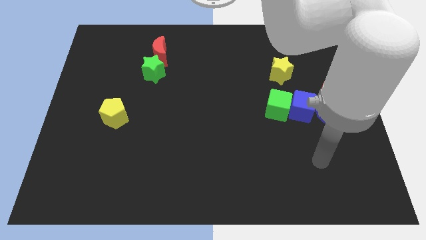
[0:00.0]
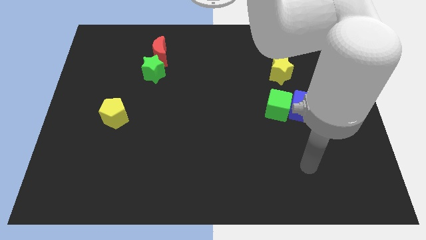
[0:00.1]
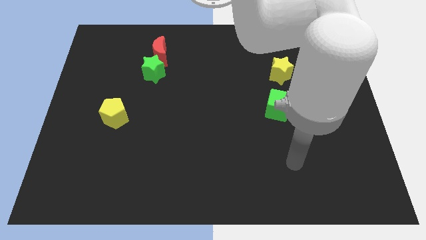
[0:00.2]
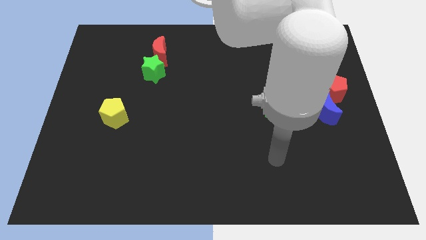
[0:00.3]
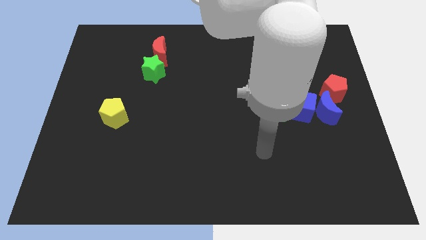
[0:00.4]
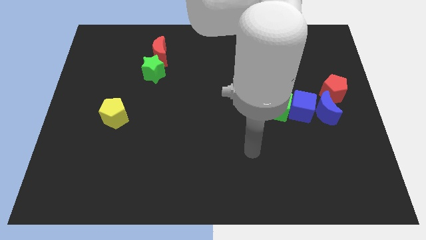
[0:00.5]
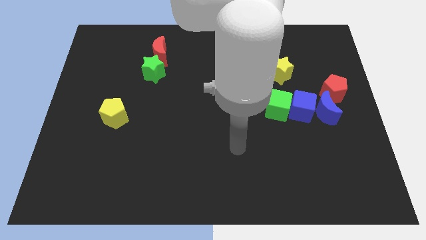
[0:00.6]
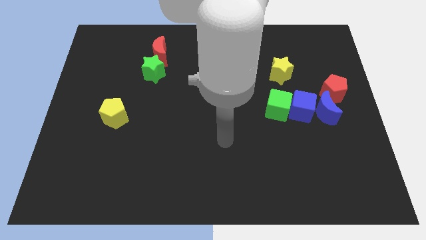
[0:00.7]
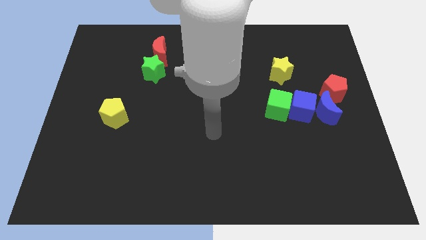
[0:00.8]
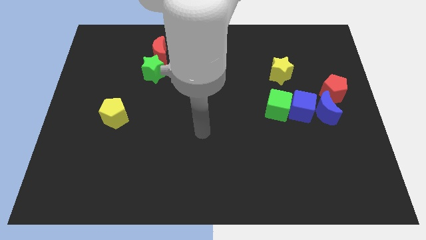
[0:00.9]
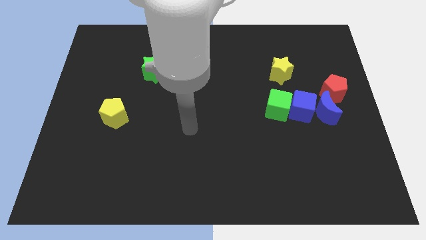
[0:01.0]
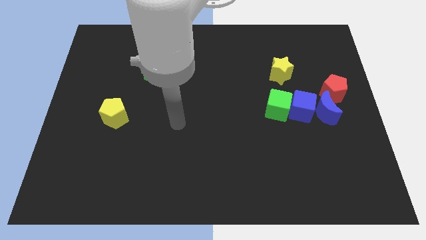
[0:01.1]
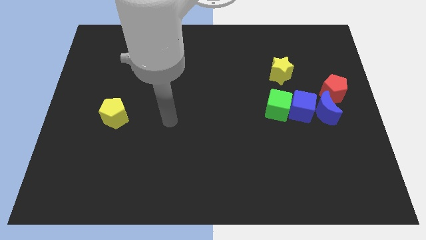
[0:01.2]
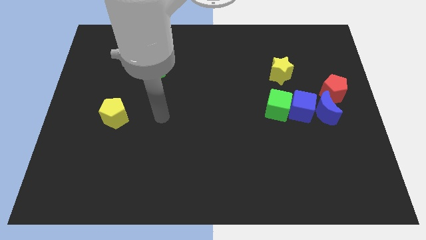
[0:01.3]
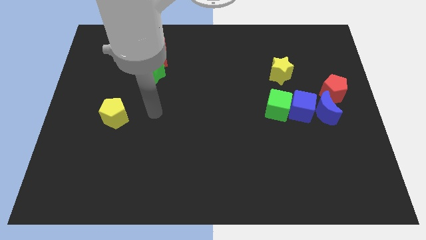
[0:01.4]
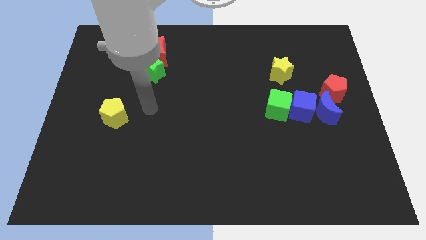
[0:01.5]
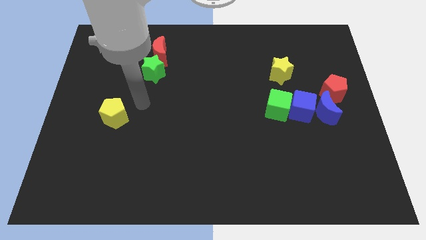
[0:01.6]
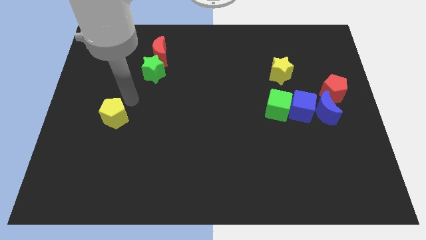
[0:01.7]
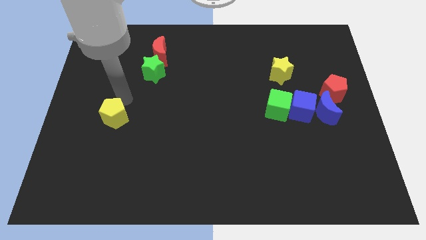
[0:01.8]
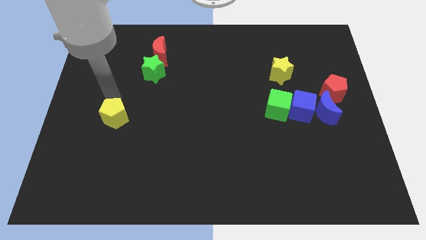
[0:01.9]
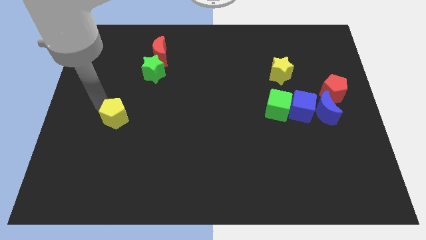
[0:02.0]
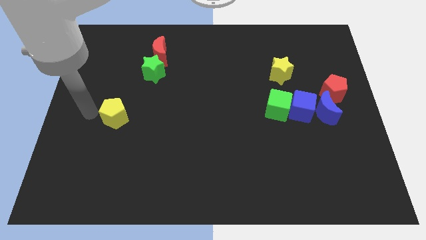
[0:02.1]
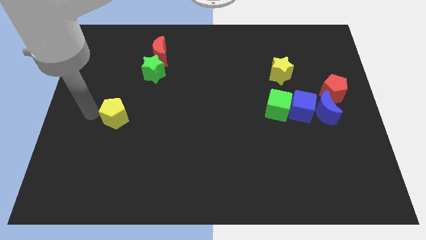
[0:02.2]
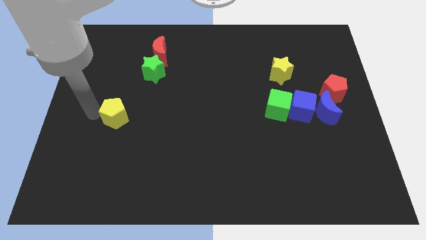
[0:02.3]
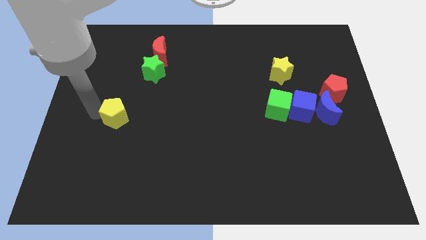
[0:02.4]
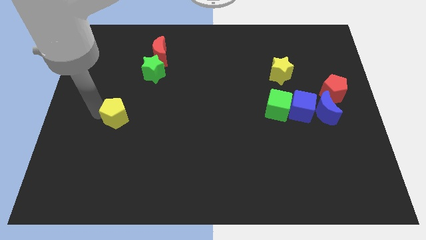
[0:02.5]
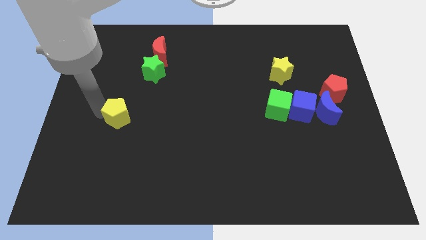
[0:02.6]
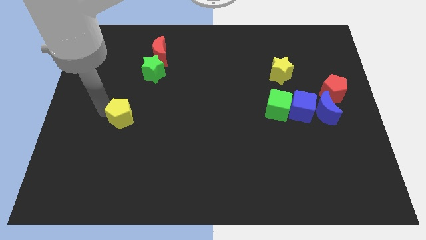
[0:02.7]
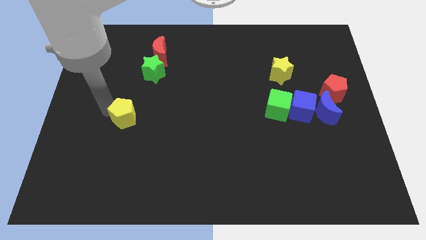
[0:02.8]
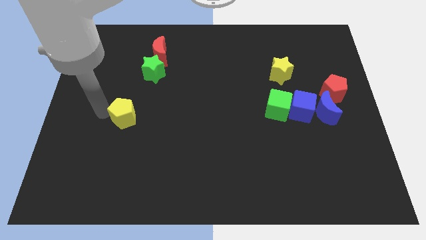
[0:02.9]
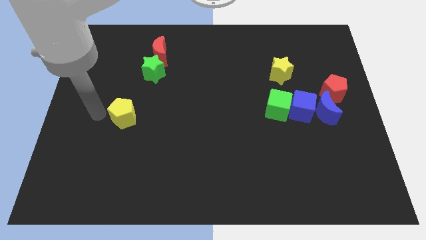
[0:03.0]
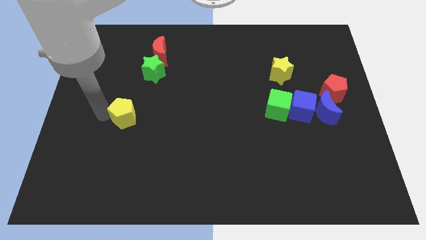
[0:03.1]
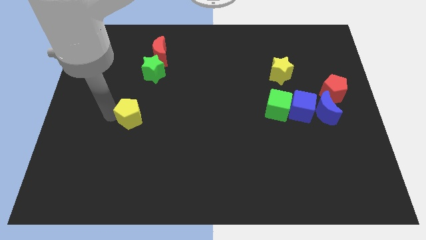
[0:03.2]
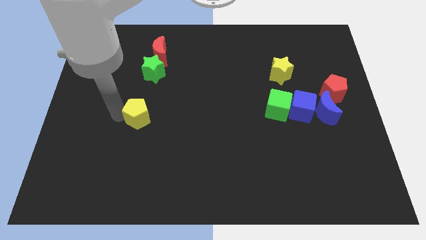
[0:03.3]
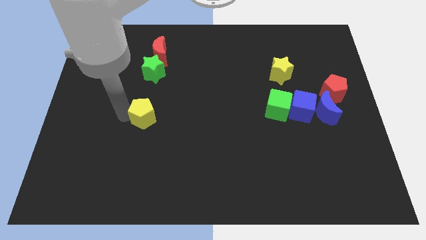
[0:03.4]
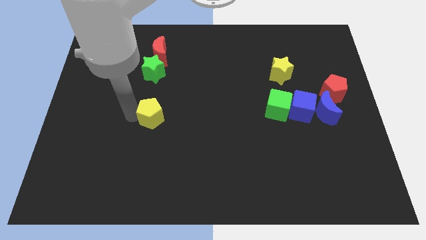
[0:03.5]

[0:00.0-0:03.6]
move the yellow pentagon slightly to the right

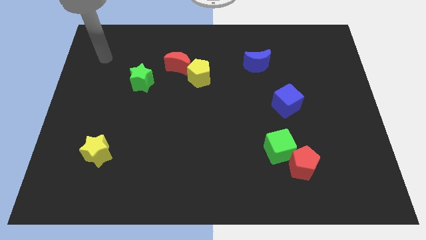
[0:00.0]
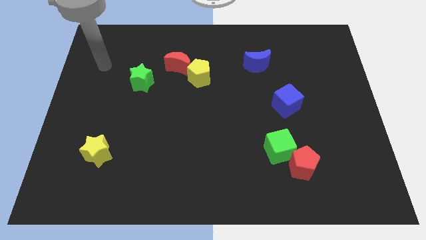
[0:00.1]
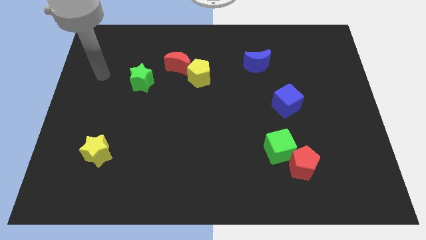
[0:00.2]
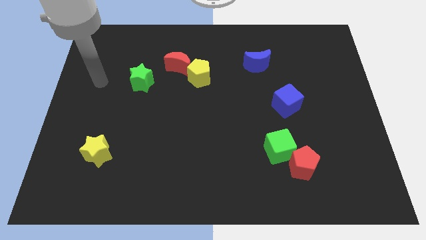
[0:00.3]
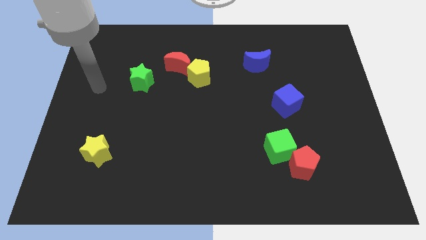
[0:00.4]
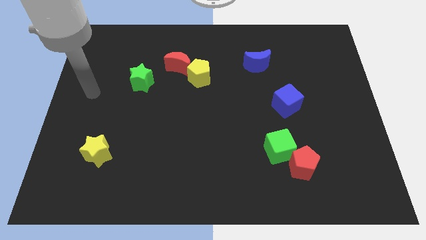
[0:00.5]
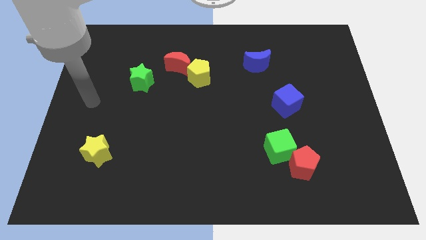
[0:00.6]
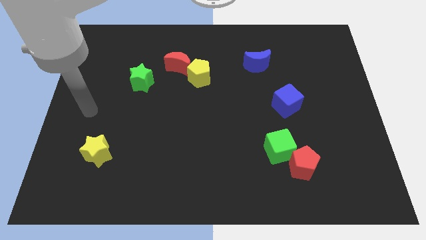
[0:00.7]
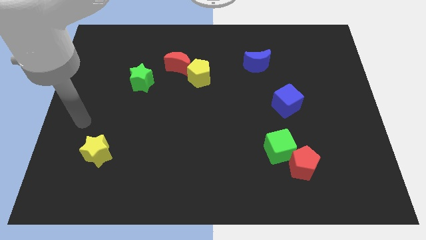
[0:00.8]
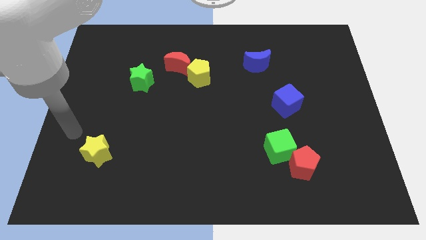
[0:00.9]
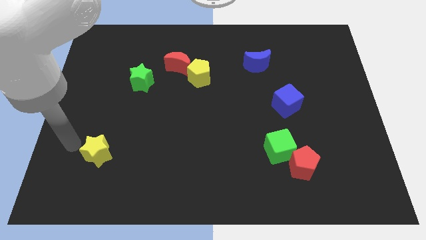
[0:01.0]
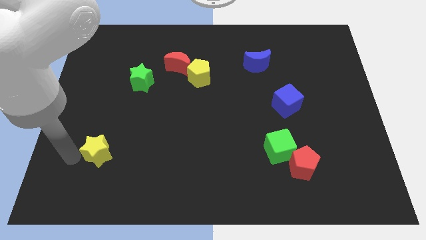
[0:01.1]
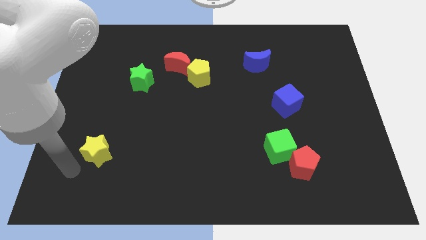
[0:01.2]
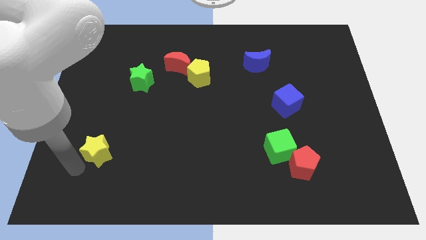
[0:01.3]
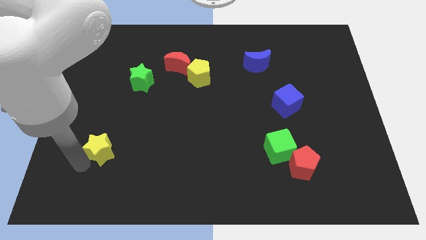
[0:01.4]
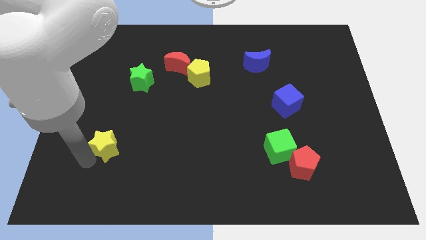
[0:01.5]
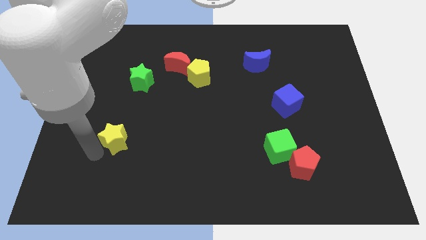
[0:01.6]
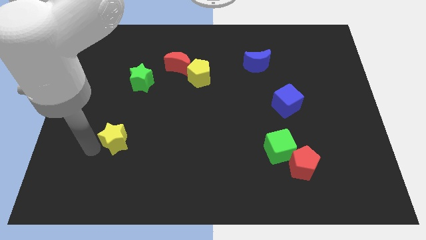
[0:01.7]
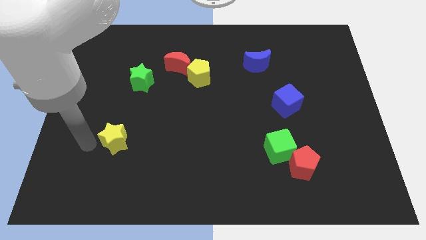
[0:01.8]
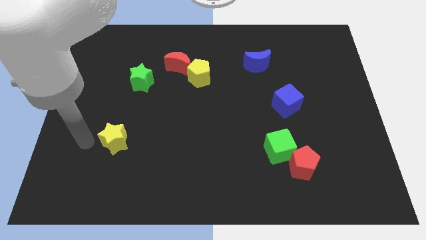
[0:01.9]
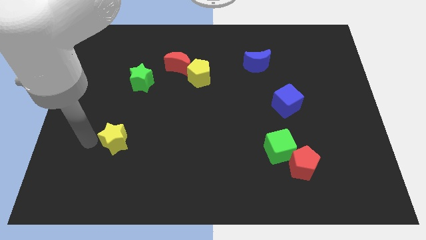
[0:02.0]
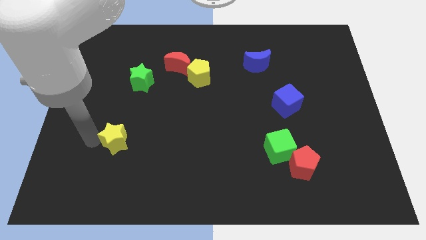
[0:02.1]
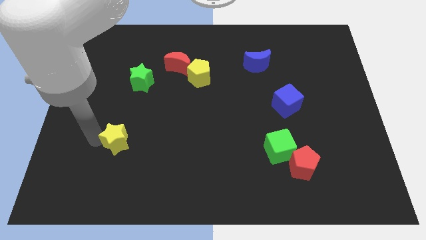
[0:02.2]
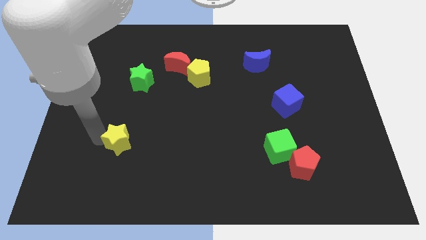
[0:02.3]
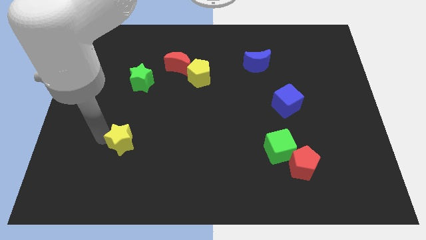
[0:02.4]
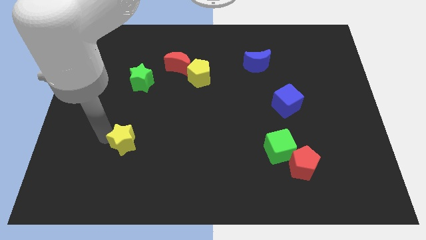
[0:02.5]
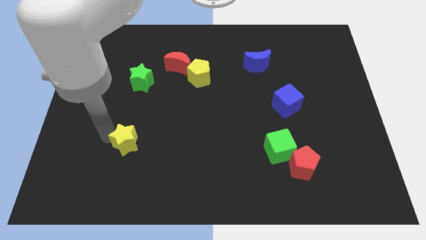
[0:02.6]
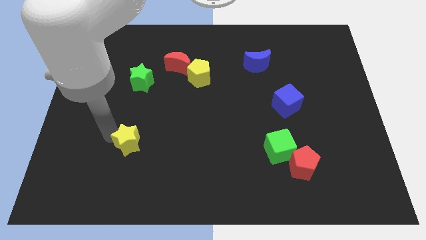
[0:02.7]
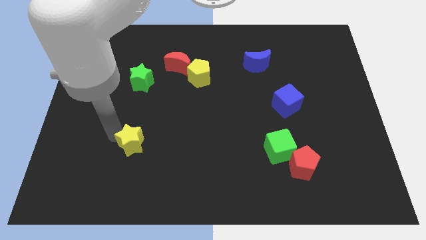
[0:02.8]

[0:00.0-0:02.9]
slide the yellow star a little bit to the right

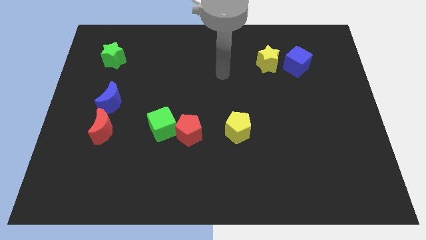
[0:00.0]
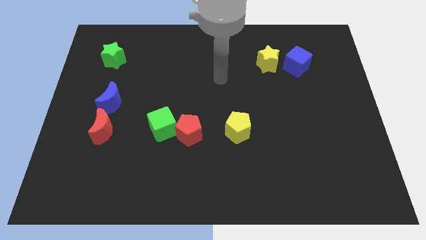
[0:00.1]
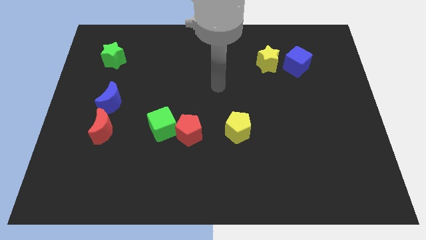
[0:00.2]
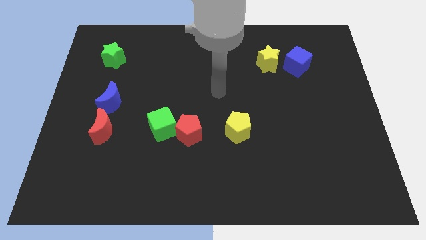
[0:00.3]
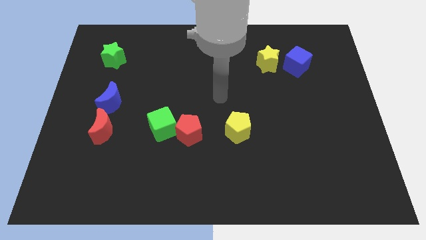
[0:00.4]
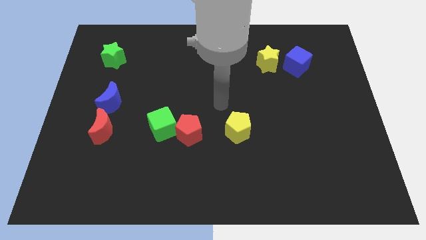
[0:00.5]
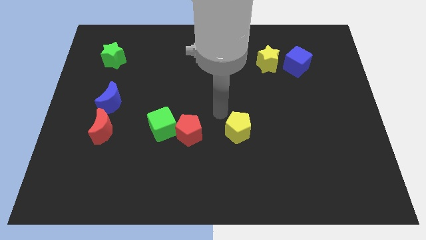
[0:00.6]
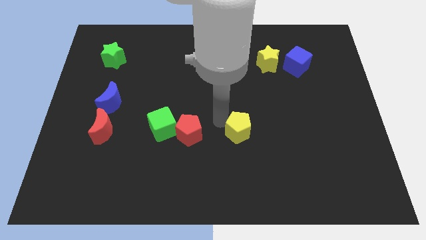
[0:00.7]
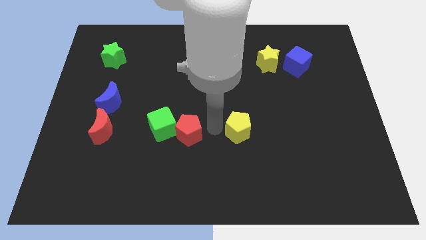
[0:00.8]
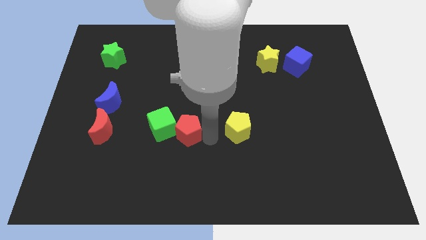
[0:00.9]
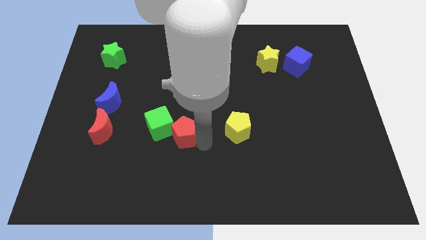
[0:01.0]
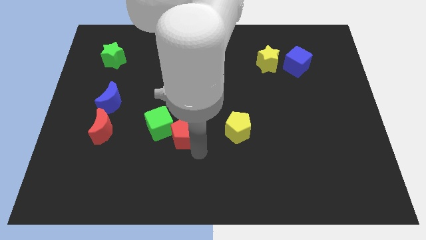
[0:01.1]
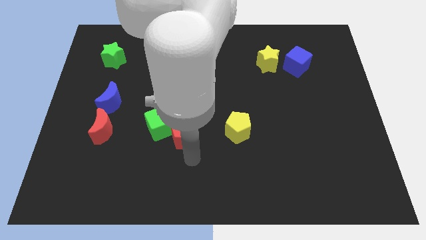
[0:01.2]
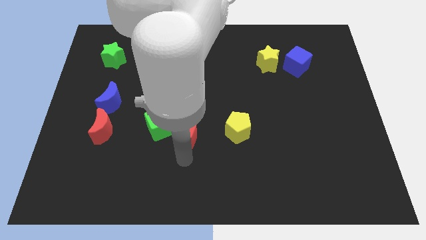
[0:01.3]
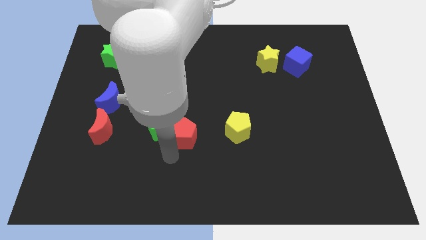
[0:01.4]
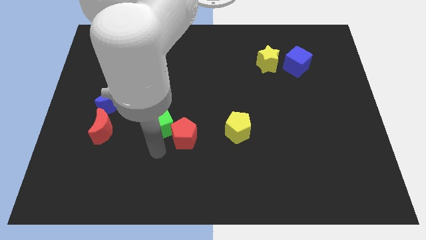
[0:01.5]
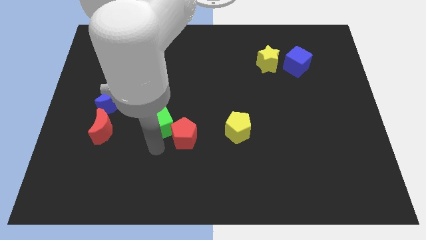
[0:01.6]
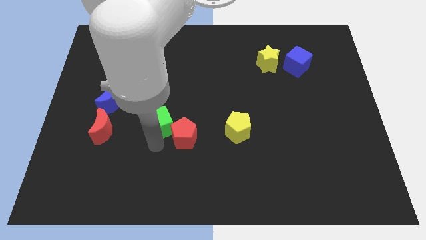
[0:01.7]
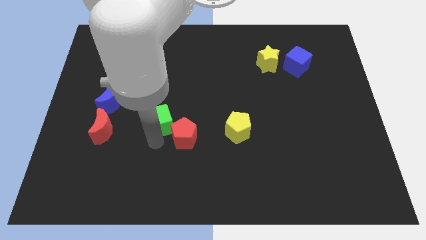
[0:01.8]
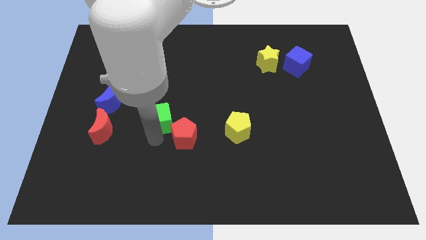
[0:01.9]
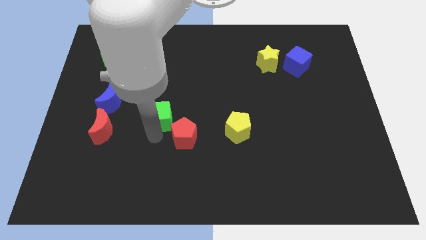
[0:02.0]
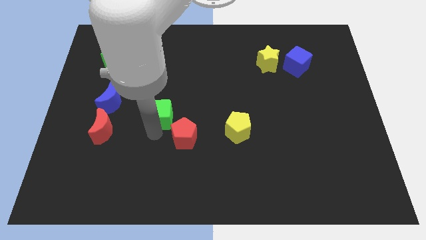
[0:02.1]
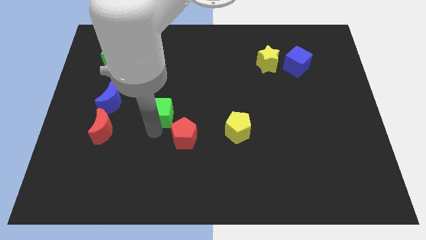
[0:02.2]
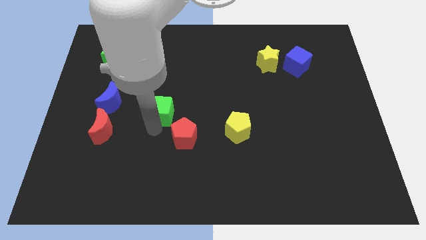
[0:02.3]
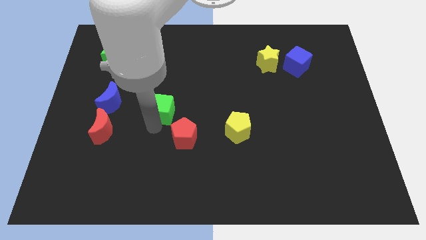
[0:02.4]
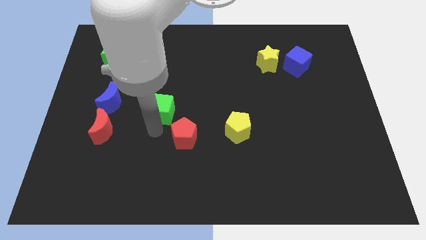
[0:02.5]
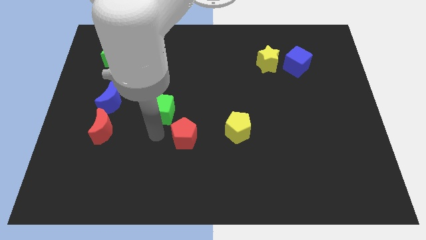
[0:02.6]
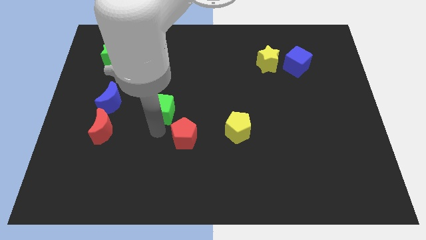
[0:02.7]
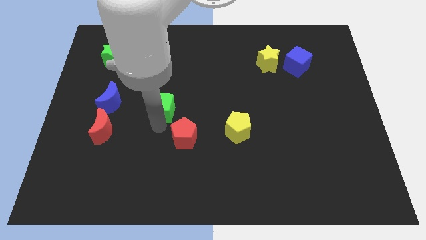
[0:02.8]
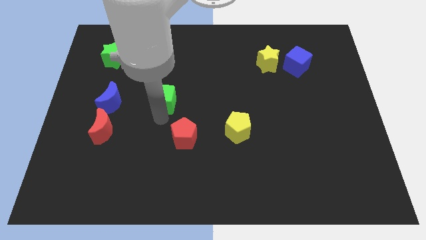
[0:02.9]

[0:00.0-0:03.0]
slightly push the green cube up
